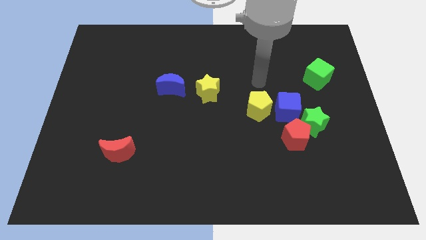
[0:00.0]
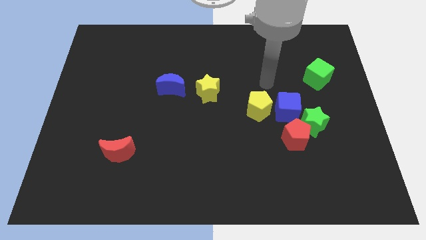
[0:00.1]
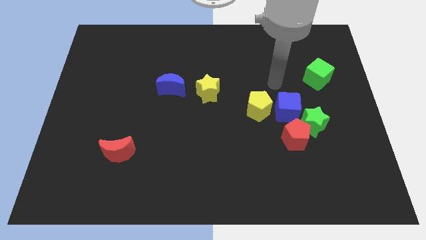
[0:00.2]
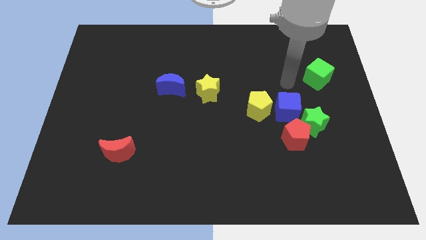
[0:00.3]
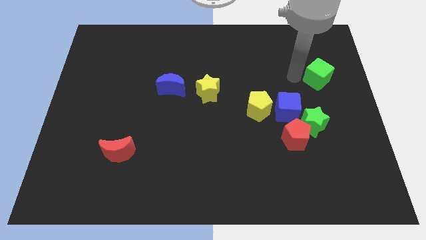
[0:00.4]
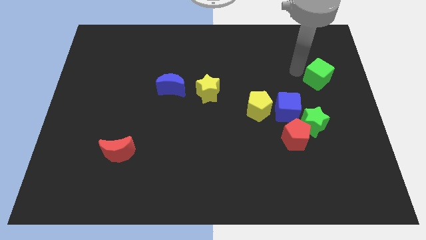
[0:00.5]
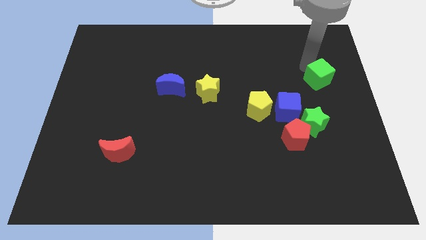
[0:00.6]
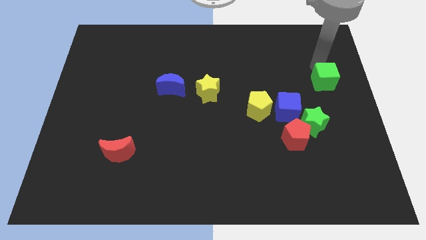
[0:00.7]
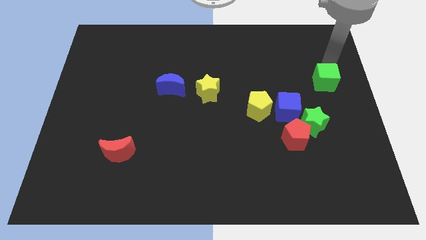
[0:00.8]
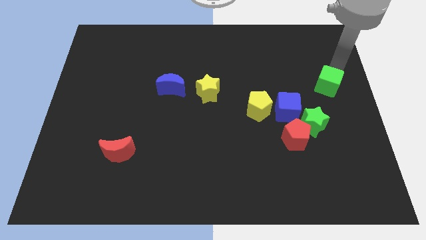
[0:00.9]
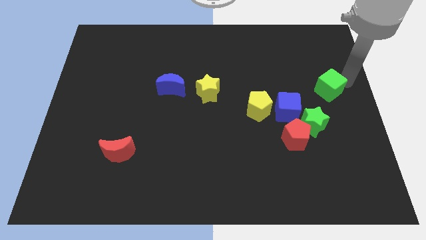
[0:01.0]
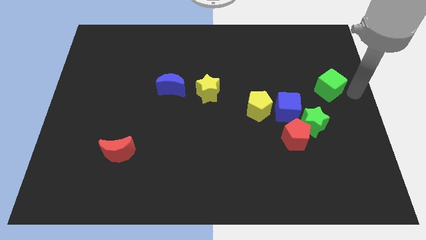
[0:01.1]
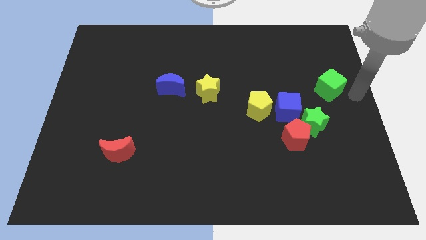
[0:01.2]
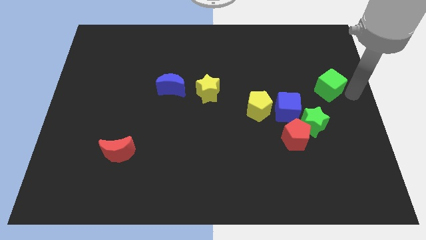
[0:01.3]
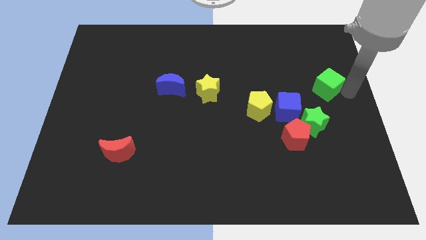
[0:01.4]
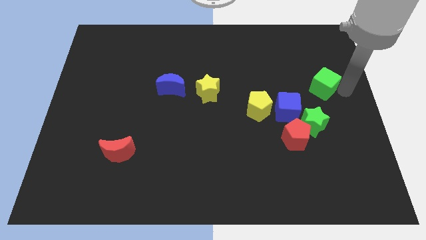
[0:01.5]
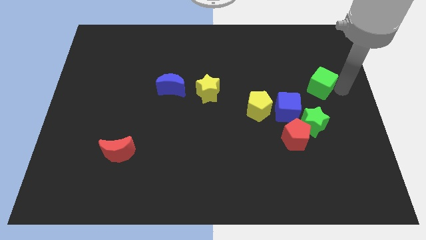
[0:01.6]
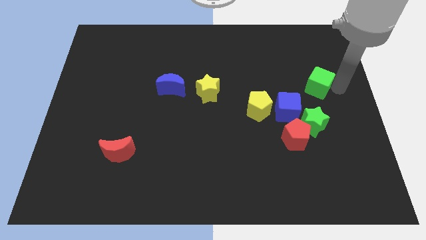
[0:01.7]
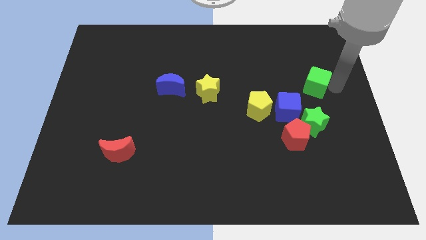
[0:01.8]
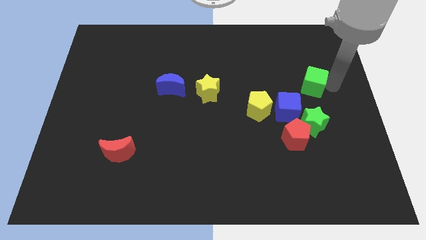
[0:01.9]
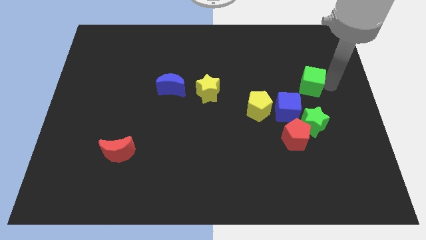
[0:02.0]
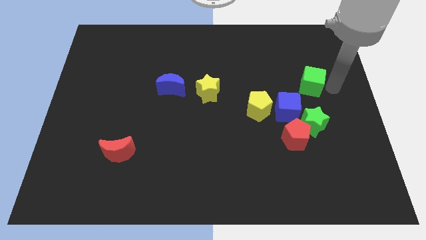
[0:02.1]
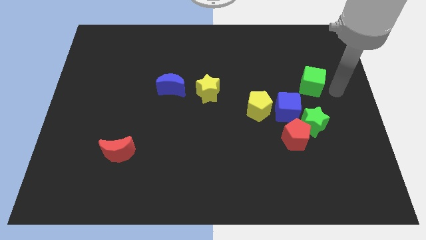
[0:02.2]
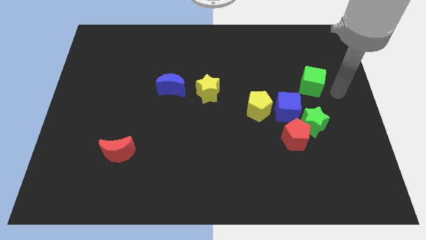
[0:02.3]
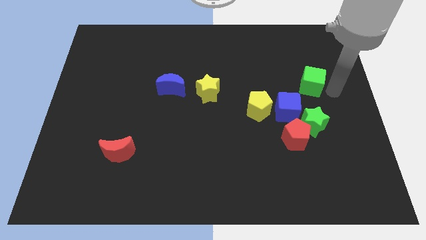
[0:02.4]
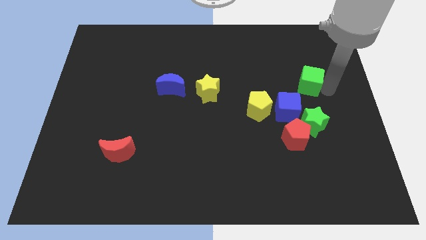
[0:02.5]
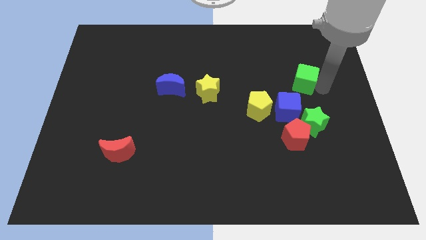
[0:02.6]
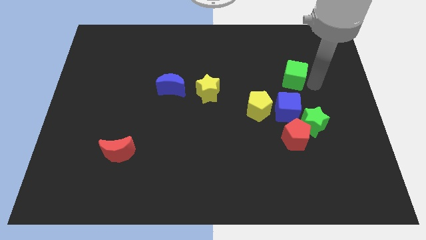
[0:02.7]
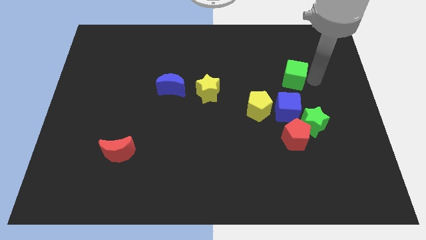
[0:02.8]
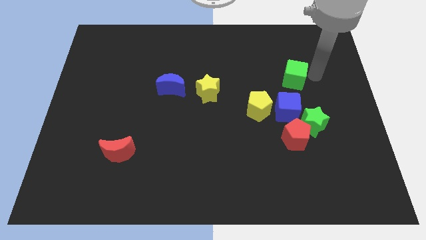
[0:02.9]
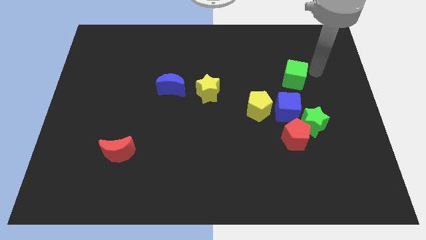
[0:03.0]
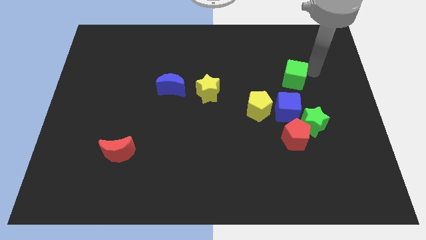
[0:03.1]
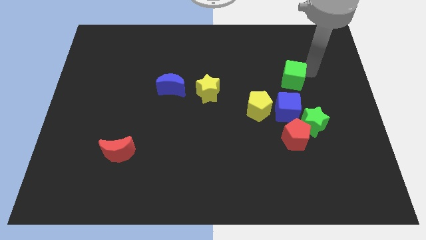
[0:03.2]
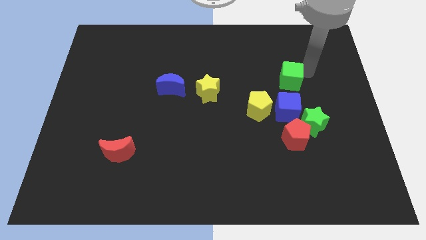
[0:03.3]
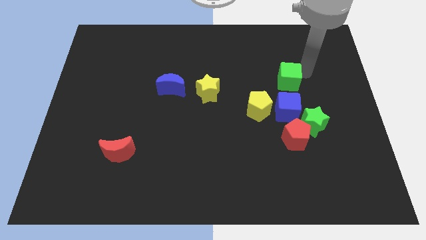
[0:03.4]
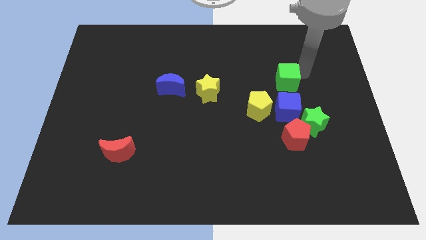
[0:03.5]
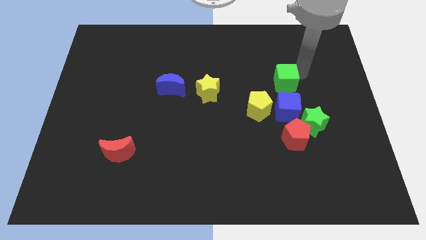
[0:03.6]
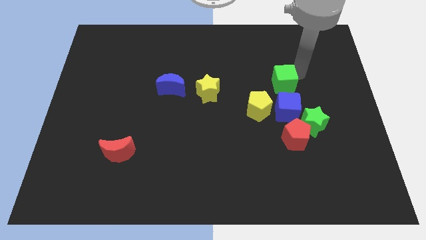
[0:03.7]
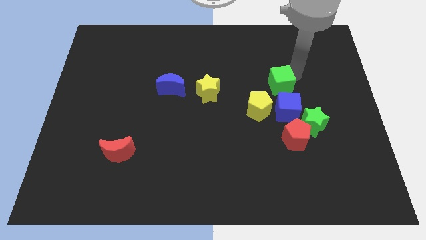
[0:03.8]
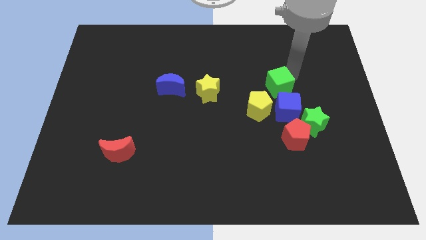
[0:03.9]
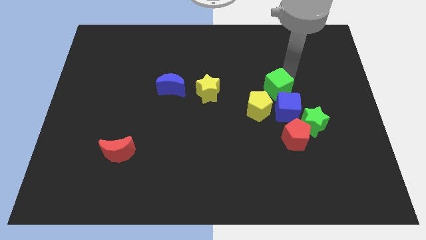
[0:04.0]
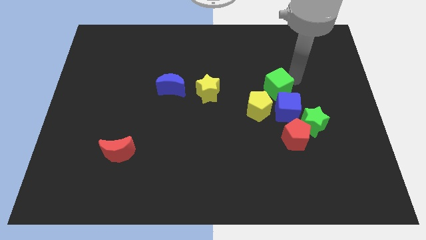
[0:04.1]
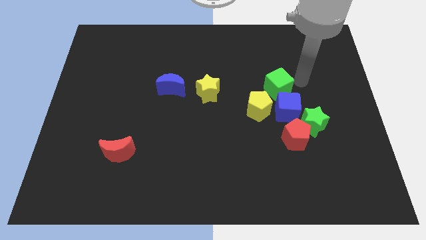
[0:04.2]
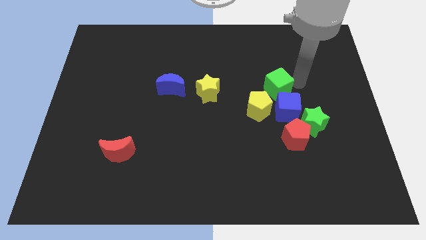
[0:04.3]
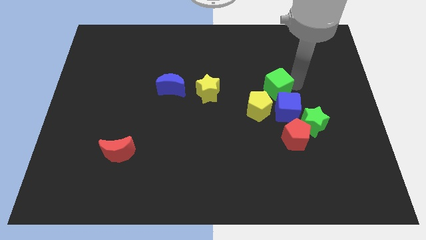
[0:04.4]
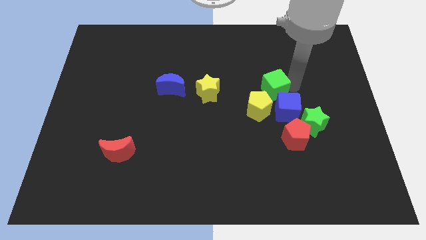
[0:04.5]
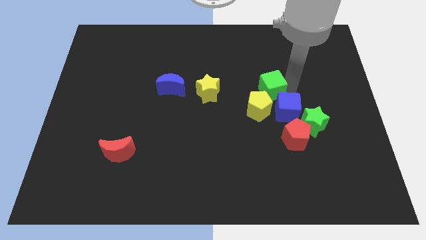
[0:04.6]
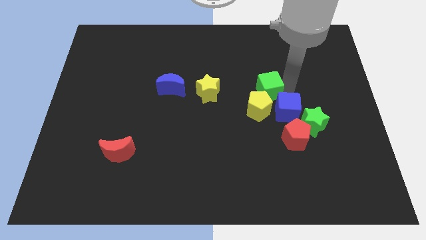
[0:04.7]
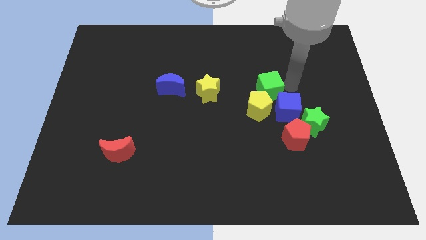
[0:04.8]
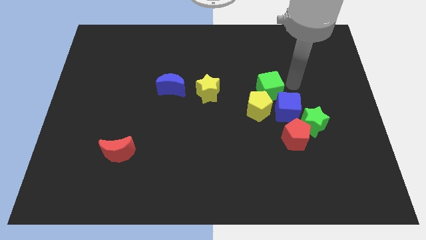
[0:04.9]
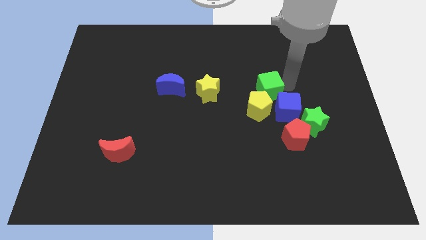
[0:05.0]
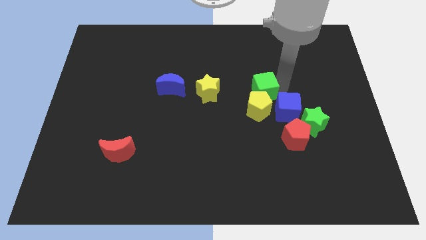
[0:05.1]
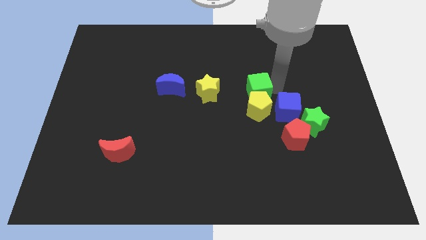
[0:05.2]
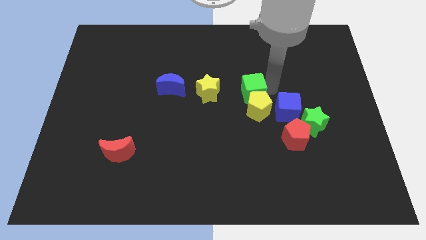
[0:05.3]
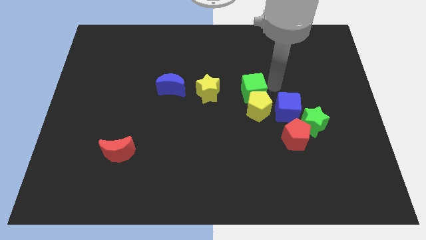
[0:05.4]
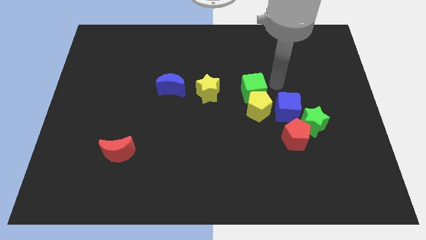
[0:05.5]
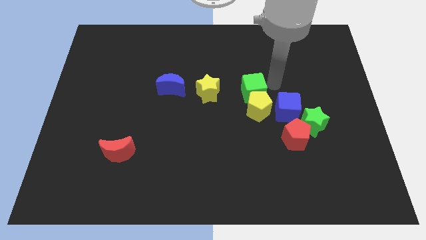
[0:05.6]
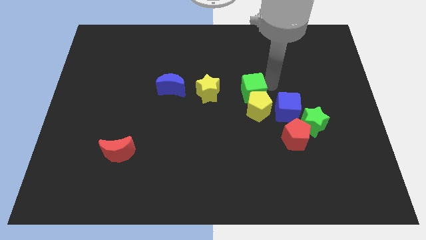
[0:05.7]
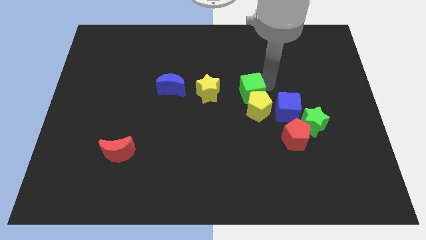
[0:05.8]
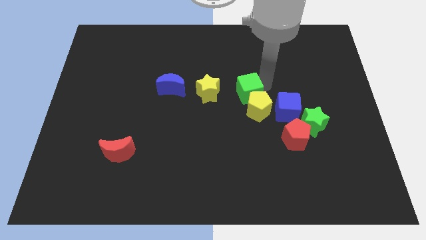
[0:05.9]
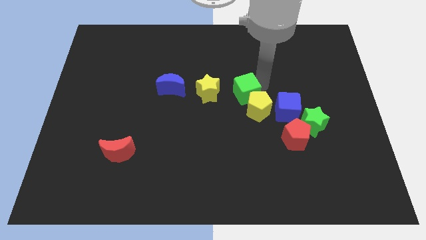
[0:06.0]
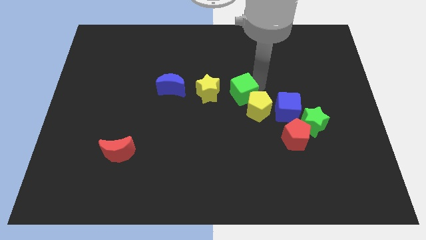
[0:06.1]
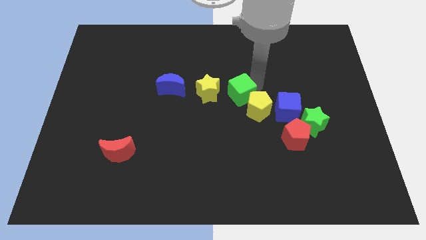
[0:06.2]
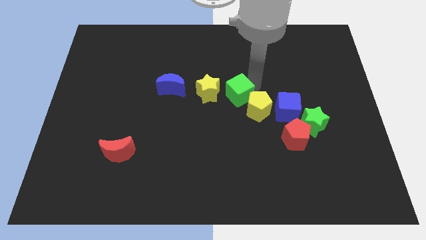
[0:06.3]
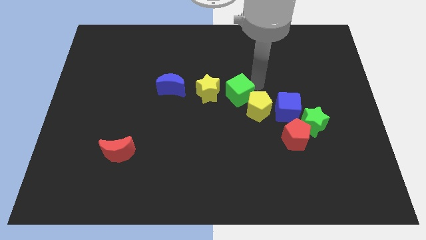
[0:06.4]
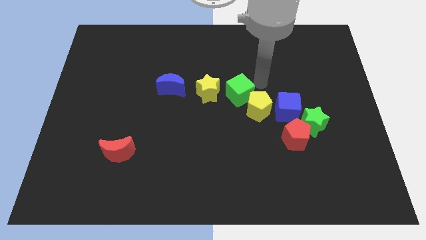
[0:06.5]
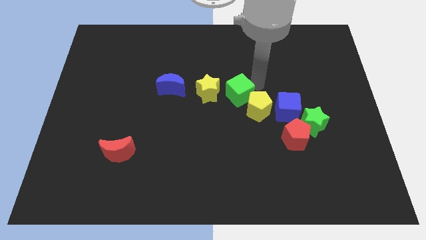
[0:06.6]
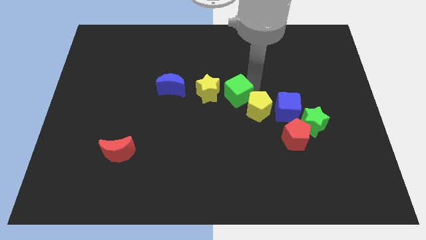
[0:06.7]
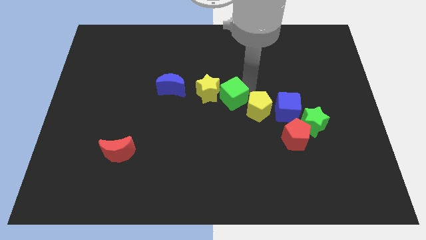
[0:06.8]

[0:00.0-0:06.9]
push the green cube to the left

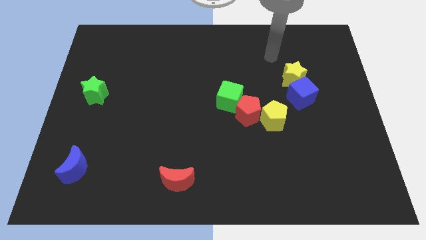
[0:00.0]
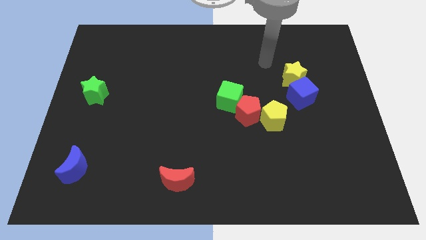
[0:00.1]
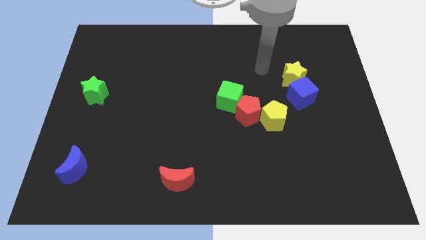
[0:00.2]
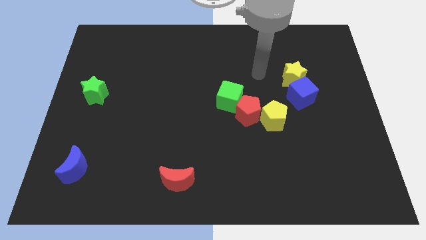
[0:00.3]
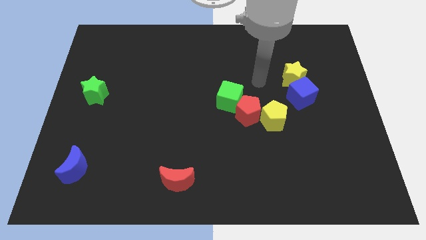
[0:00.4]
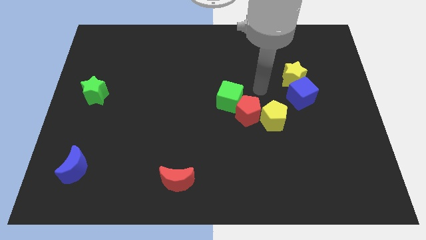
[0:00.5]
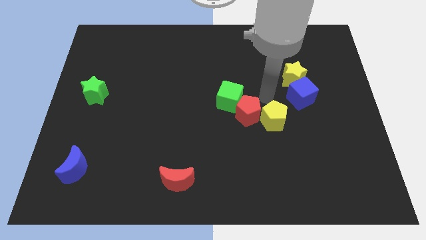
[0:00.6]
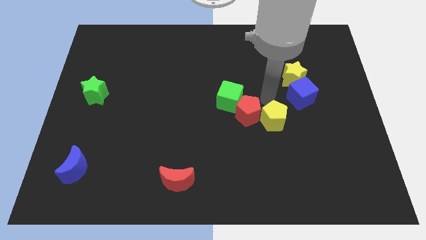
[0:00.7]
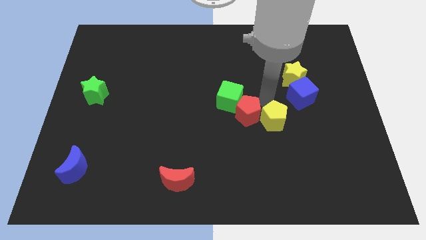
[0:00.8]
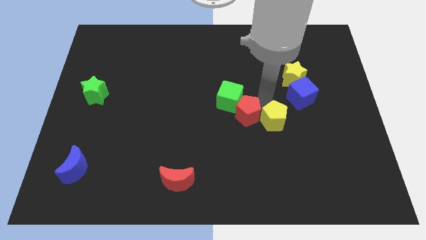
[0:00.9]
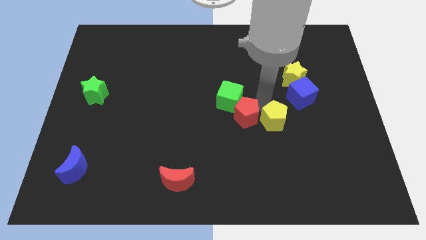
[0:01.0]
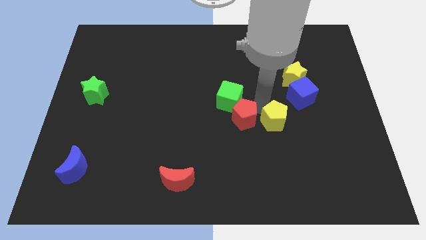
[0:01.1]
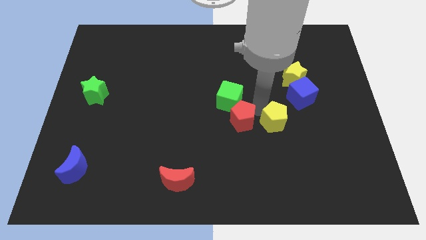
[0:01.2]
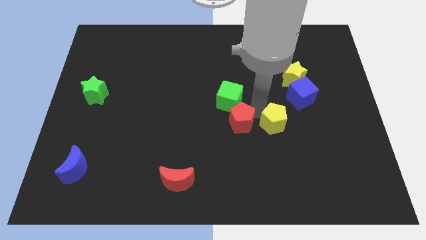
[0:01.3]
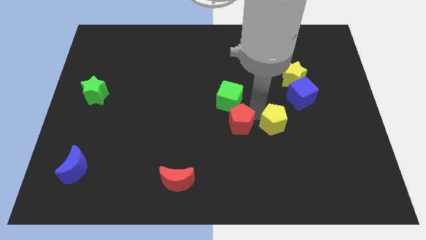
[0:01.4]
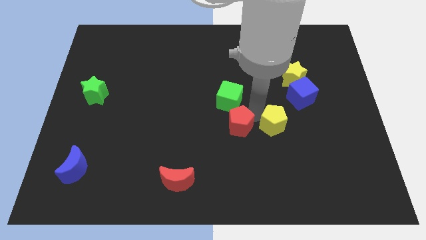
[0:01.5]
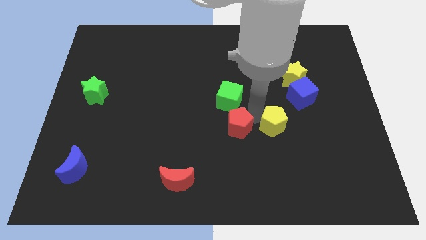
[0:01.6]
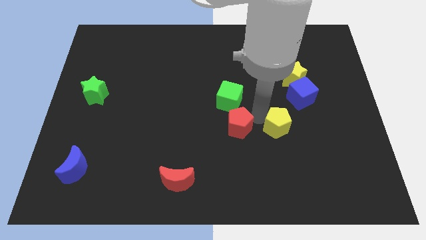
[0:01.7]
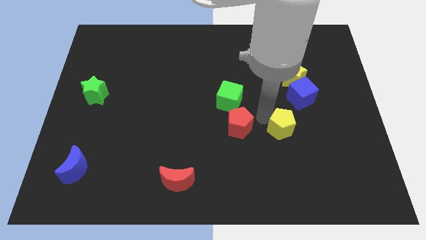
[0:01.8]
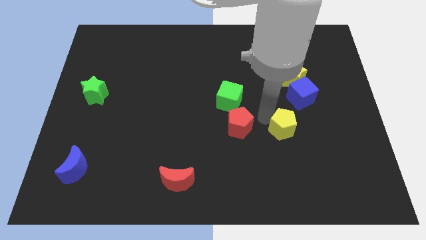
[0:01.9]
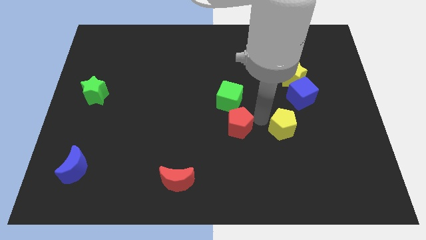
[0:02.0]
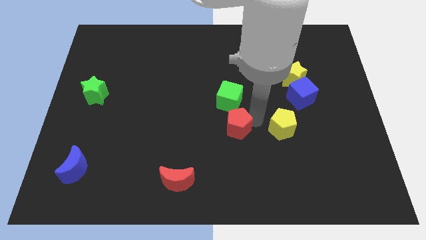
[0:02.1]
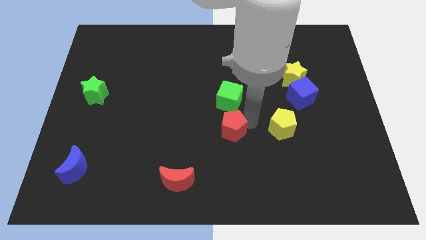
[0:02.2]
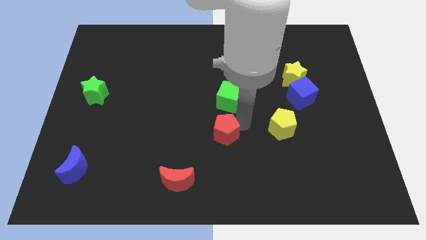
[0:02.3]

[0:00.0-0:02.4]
slightly move the red pentagon diagonally down and to the left
